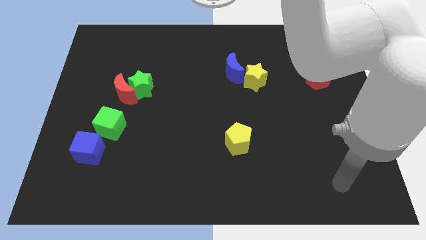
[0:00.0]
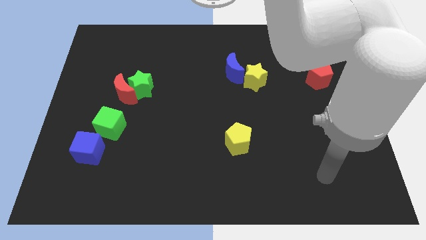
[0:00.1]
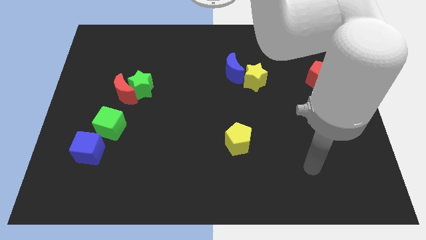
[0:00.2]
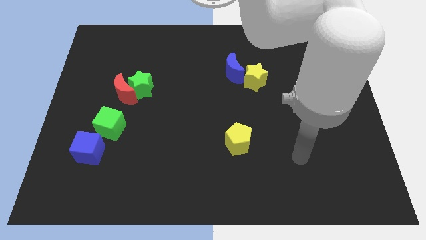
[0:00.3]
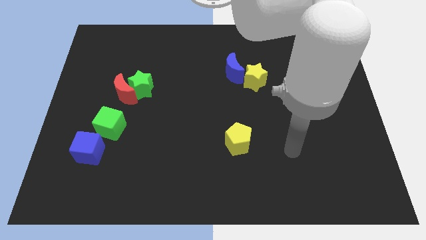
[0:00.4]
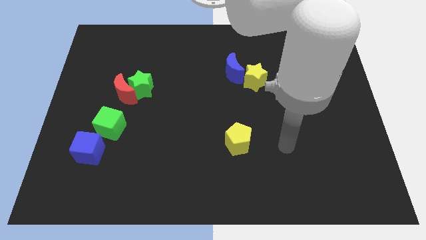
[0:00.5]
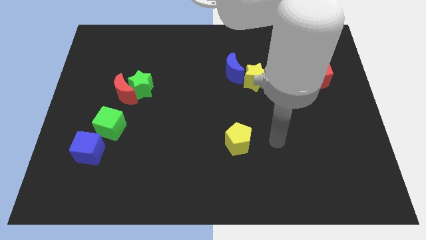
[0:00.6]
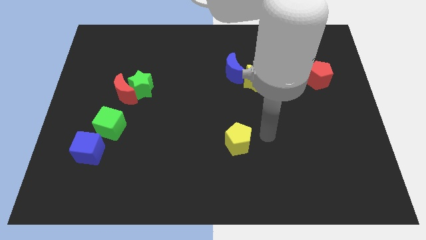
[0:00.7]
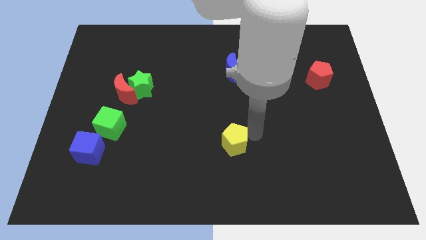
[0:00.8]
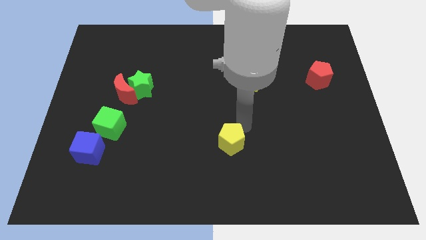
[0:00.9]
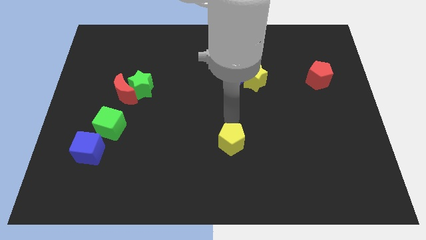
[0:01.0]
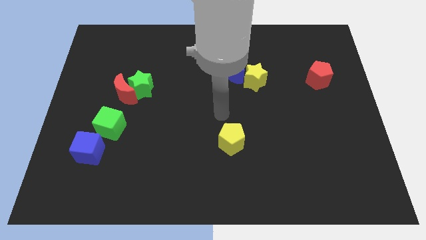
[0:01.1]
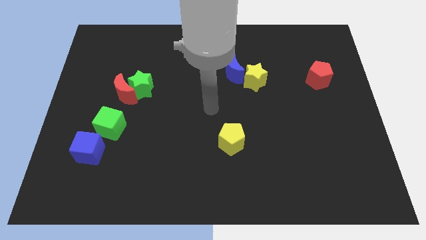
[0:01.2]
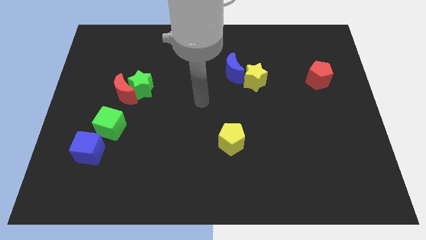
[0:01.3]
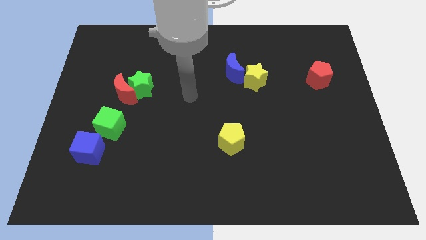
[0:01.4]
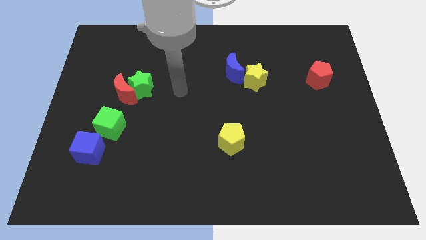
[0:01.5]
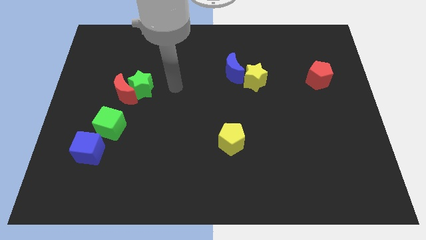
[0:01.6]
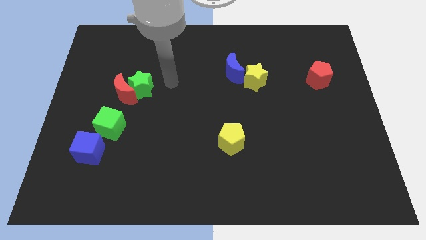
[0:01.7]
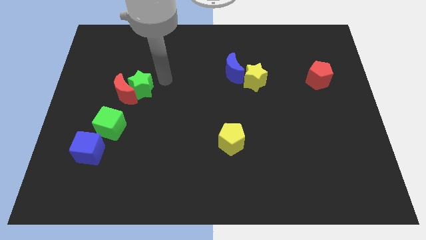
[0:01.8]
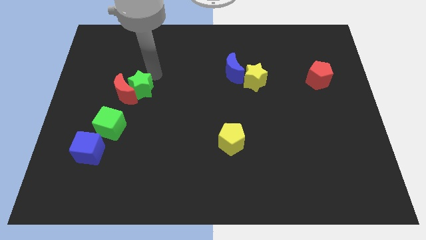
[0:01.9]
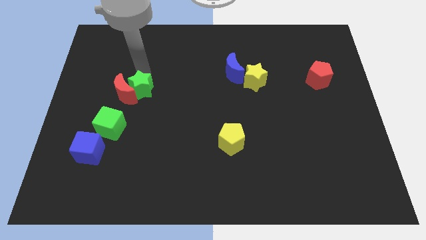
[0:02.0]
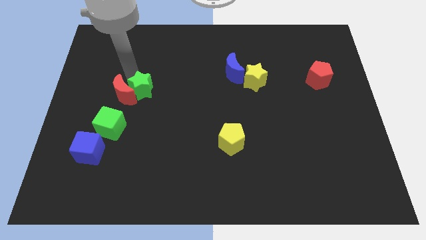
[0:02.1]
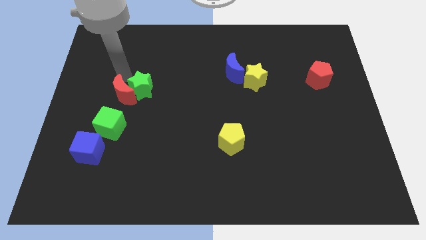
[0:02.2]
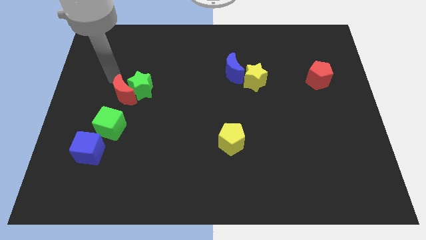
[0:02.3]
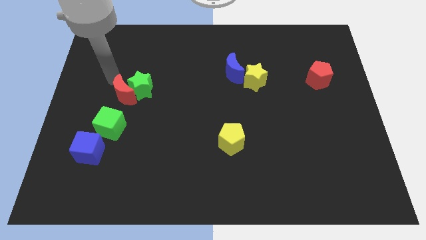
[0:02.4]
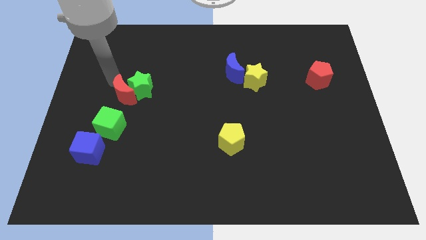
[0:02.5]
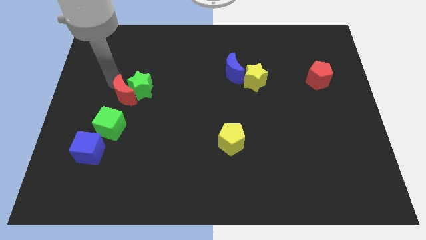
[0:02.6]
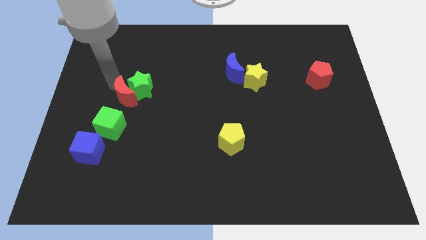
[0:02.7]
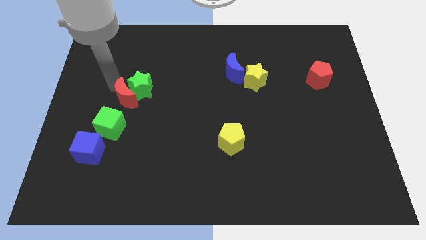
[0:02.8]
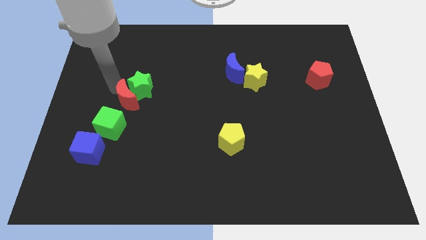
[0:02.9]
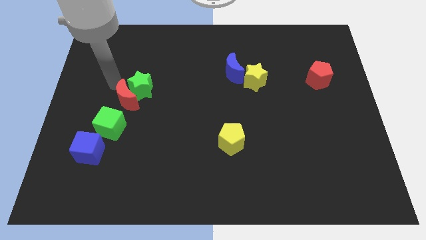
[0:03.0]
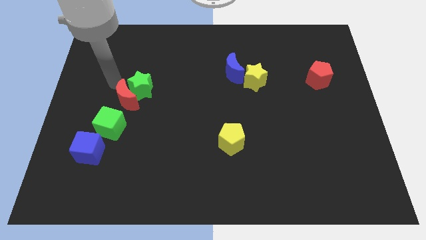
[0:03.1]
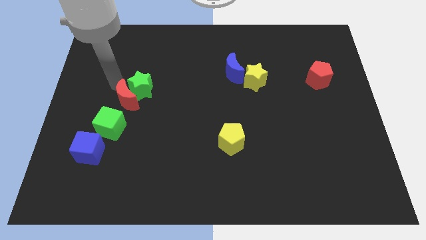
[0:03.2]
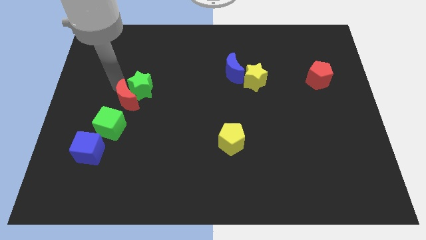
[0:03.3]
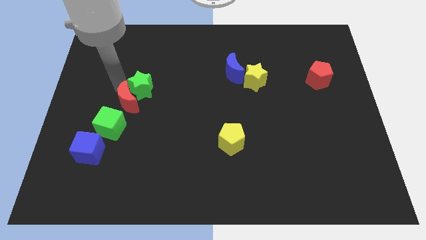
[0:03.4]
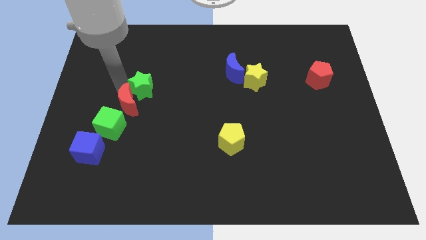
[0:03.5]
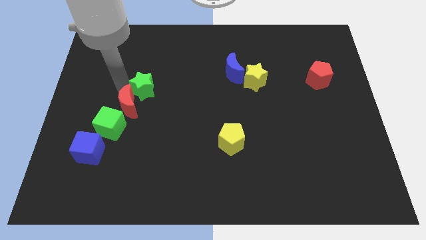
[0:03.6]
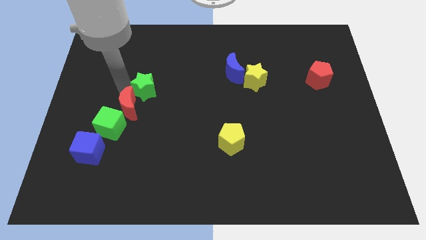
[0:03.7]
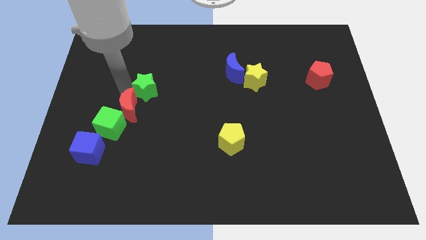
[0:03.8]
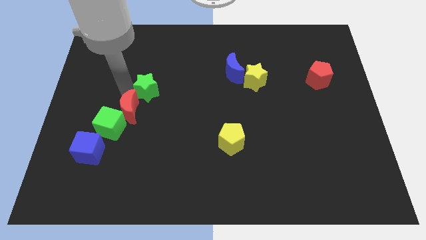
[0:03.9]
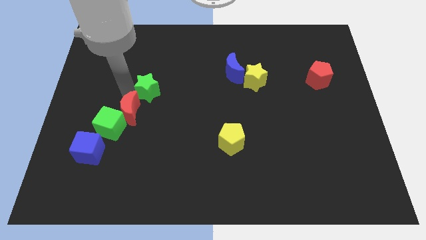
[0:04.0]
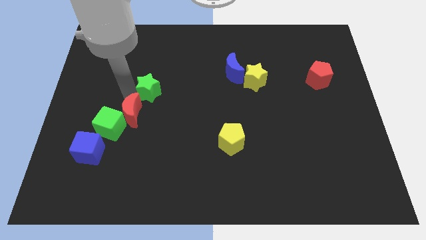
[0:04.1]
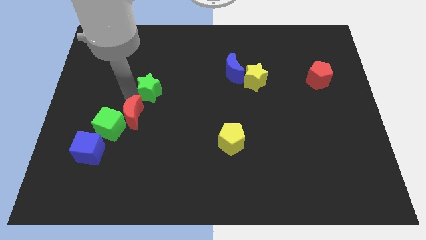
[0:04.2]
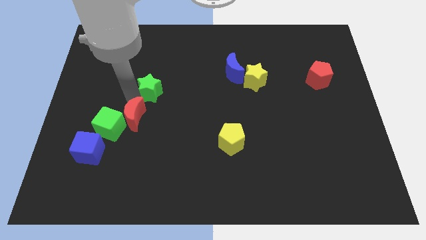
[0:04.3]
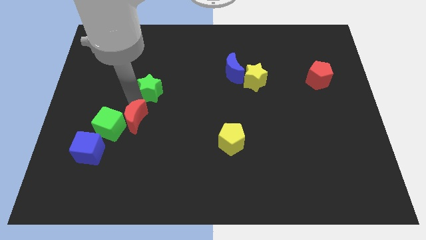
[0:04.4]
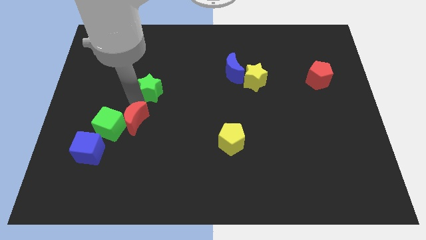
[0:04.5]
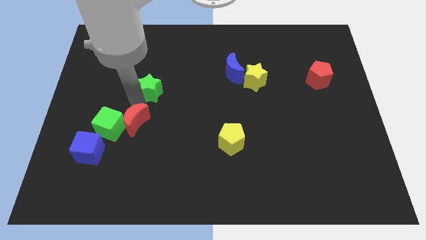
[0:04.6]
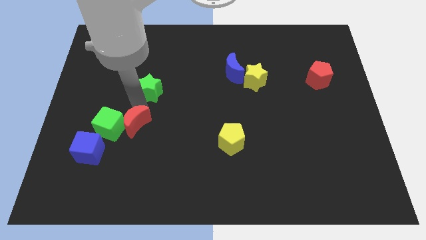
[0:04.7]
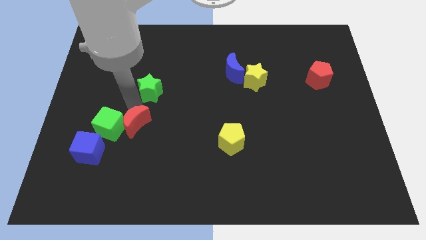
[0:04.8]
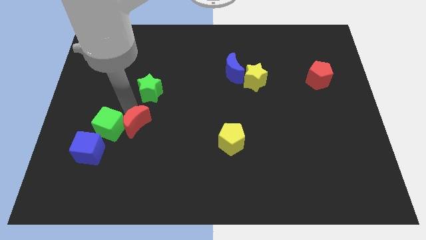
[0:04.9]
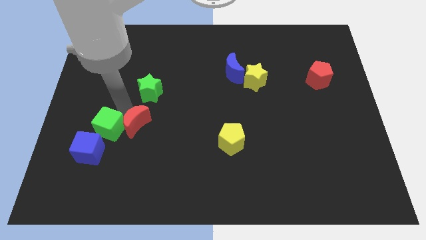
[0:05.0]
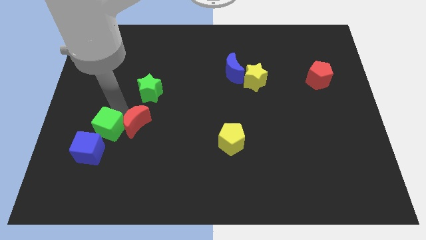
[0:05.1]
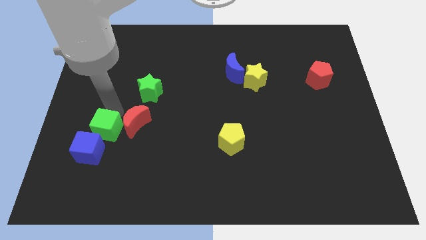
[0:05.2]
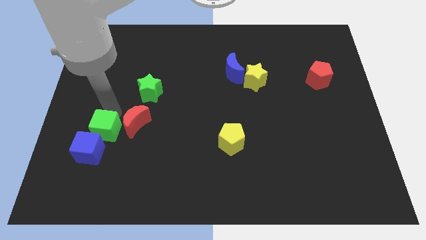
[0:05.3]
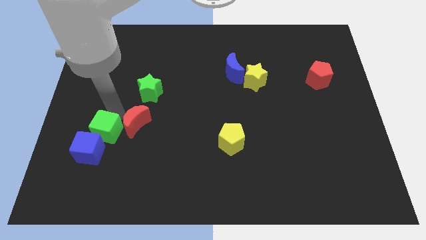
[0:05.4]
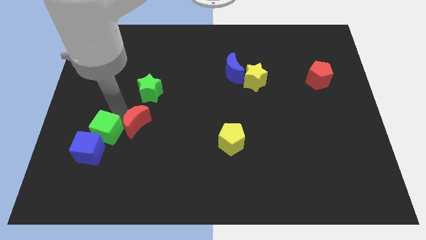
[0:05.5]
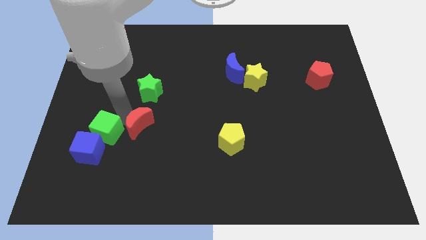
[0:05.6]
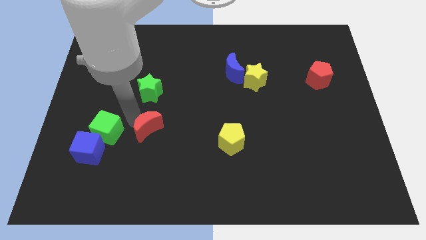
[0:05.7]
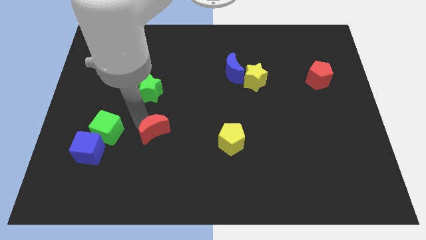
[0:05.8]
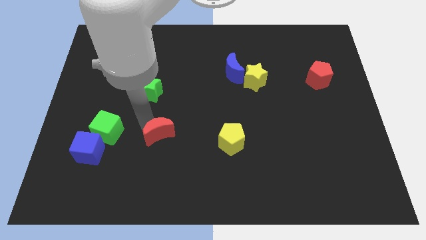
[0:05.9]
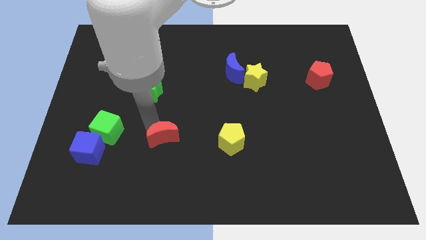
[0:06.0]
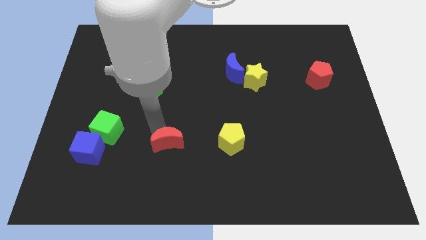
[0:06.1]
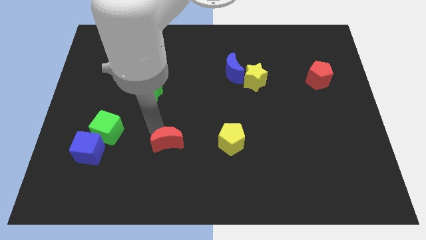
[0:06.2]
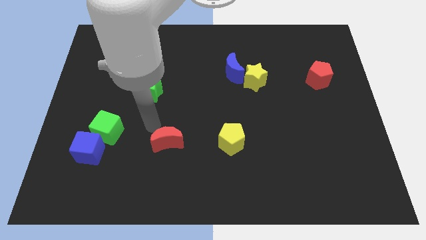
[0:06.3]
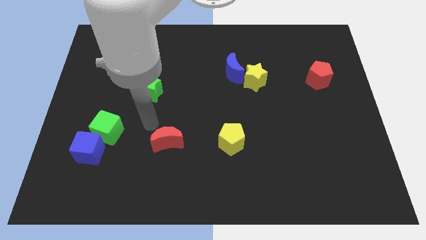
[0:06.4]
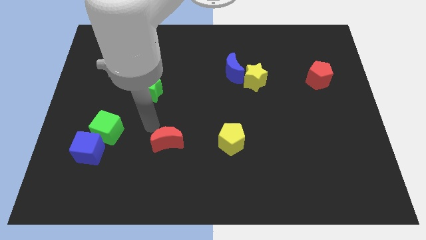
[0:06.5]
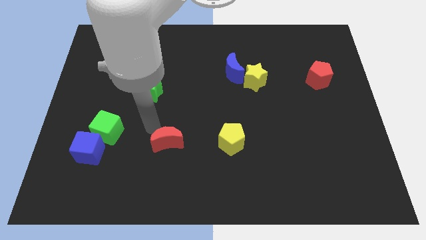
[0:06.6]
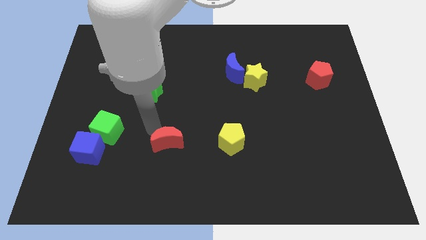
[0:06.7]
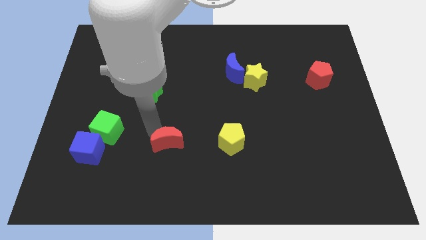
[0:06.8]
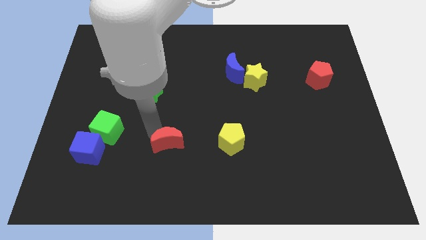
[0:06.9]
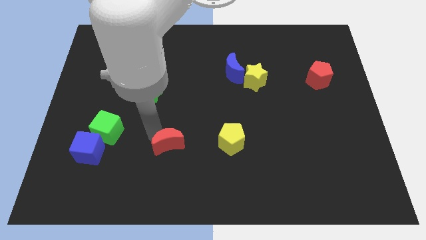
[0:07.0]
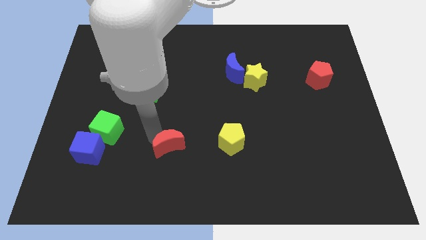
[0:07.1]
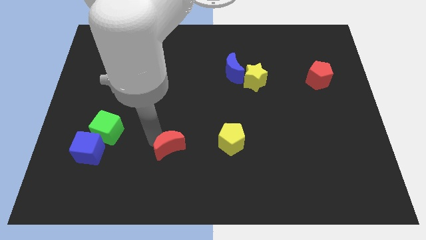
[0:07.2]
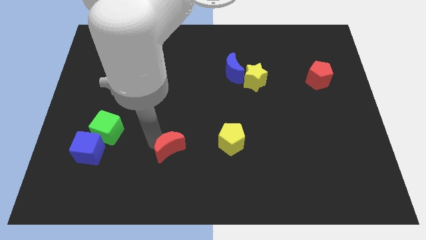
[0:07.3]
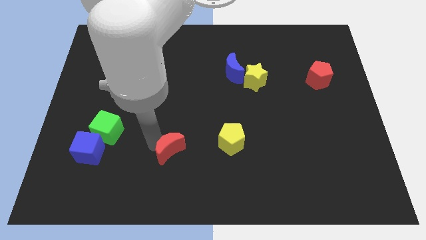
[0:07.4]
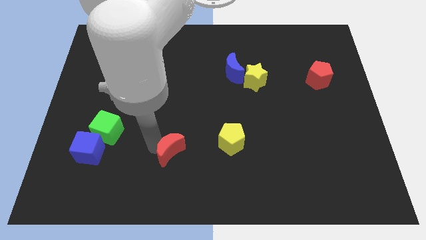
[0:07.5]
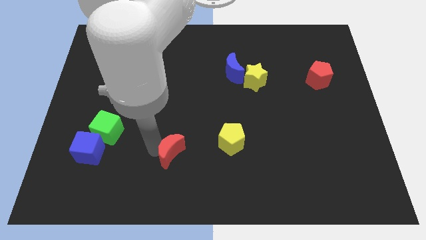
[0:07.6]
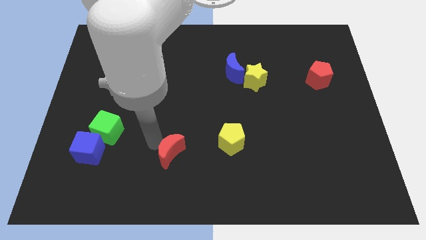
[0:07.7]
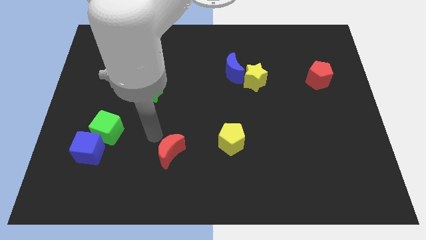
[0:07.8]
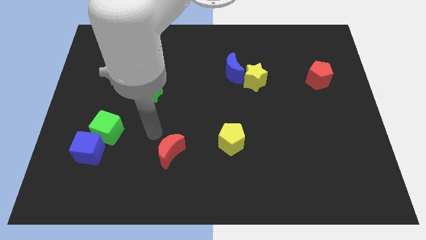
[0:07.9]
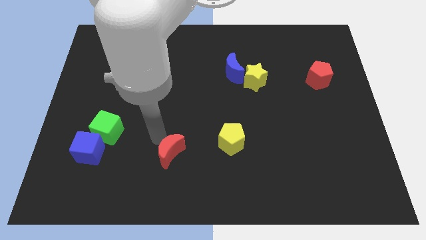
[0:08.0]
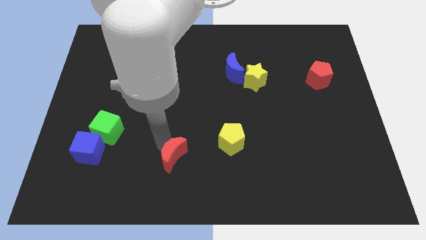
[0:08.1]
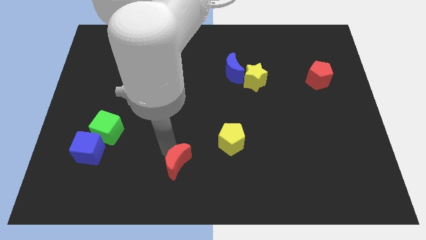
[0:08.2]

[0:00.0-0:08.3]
put the red moon to the bottom
